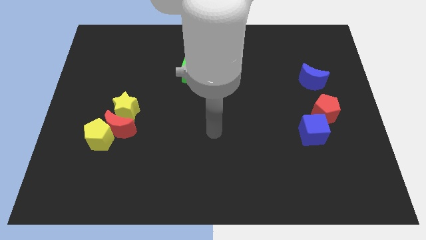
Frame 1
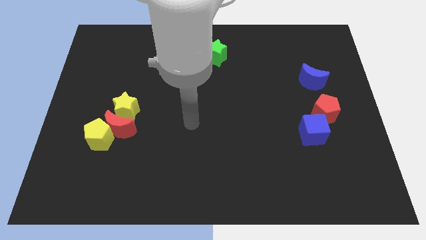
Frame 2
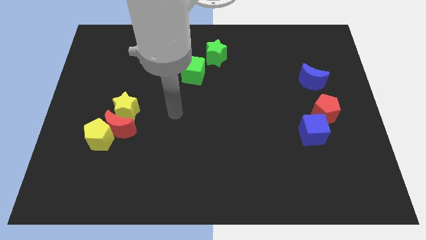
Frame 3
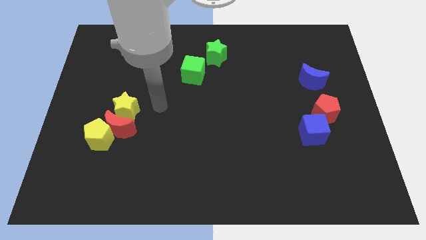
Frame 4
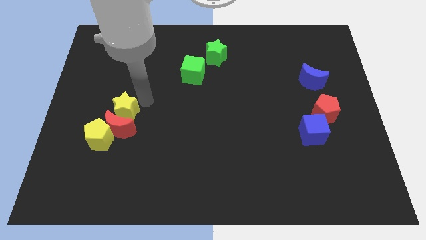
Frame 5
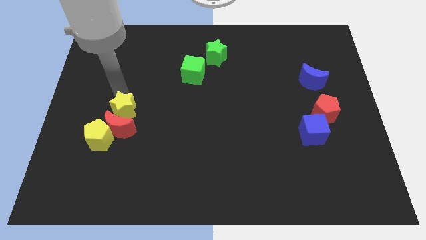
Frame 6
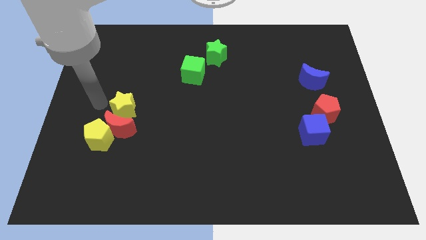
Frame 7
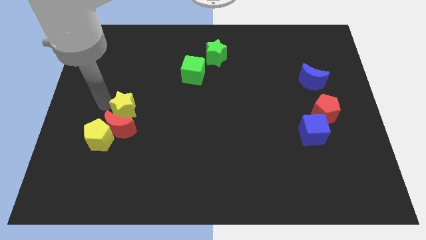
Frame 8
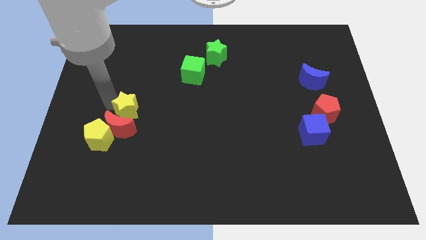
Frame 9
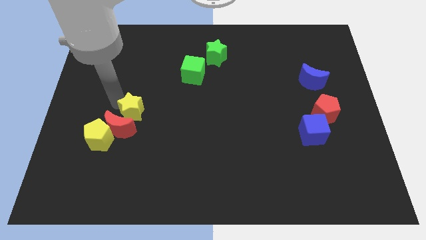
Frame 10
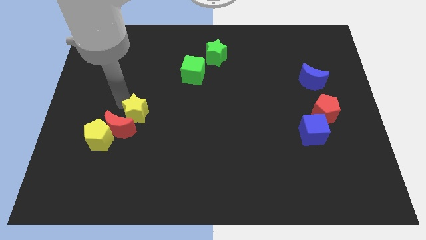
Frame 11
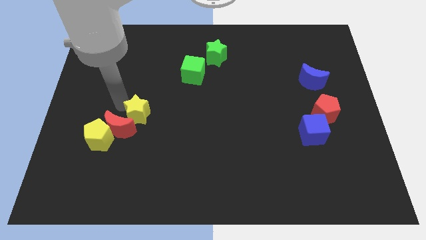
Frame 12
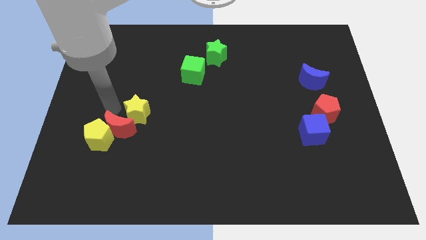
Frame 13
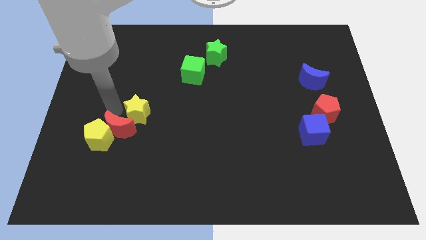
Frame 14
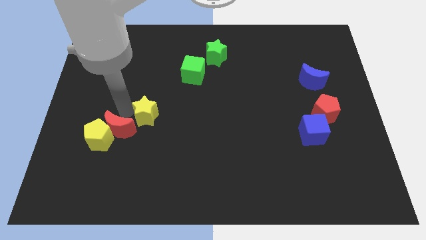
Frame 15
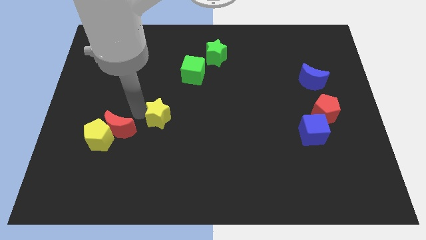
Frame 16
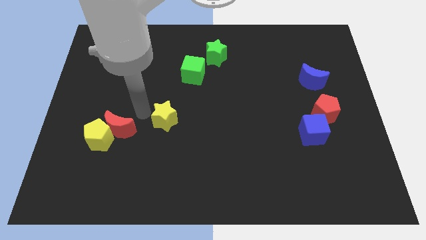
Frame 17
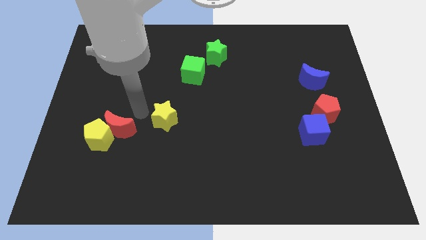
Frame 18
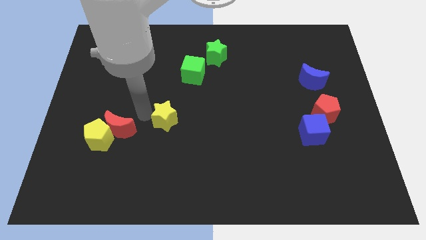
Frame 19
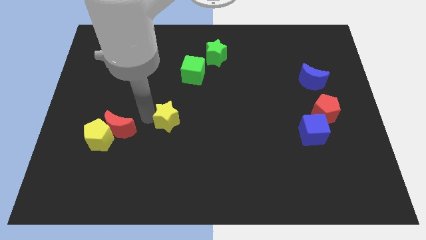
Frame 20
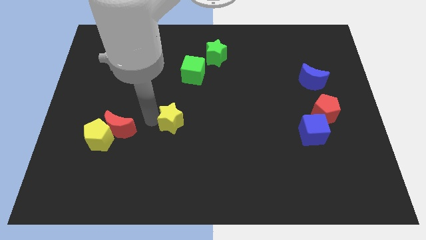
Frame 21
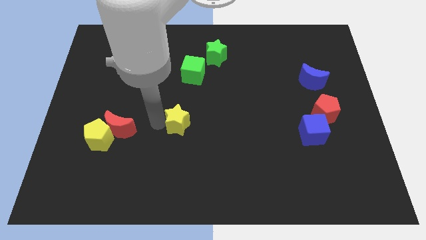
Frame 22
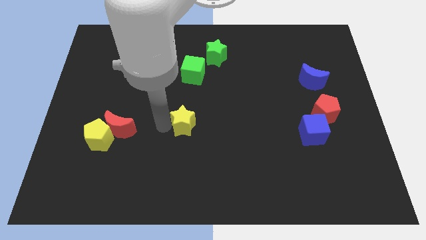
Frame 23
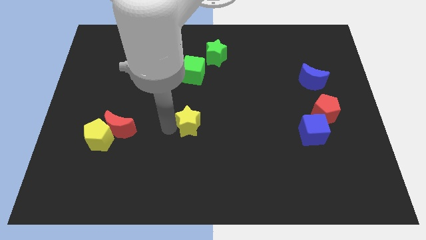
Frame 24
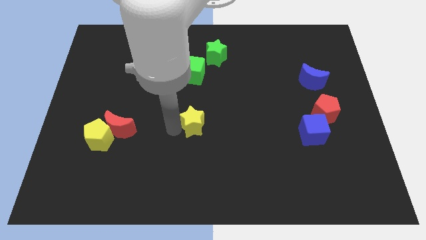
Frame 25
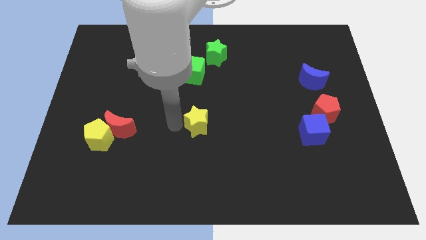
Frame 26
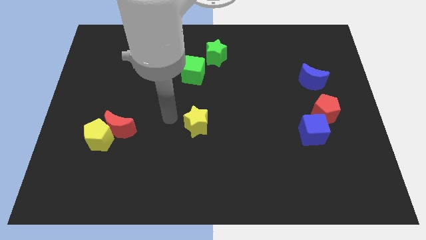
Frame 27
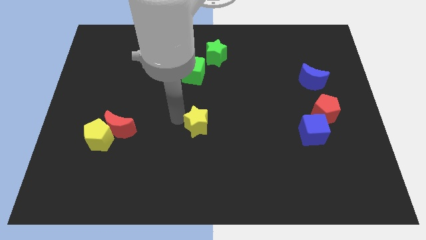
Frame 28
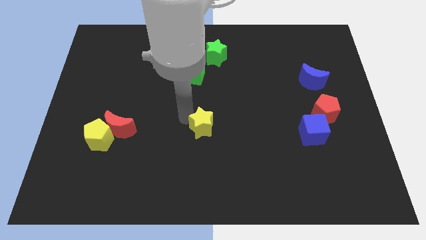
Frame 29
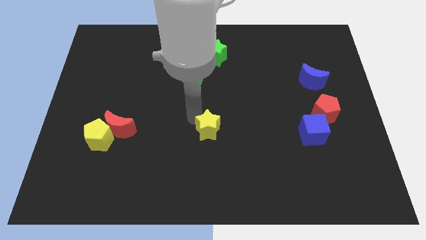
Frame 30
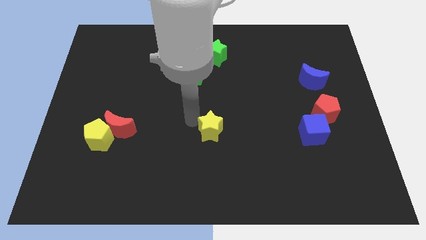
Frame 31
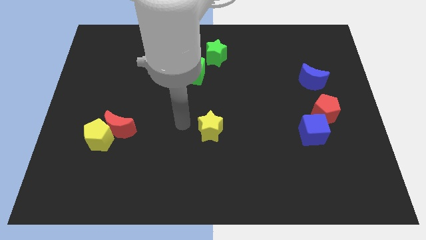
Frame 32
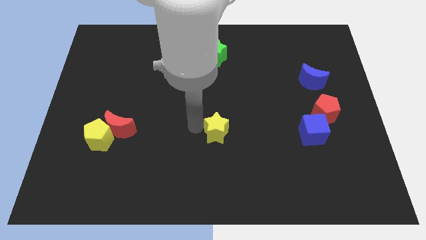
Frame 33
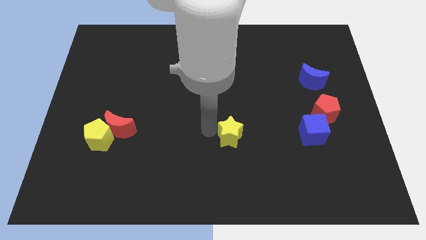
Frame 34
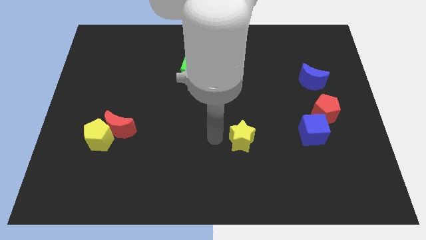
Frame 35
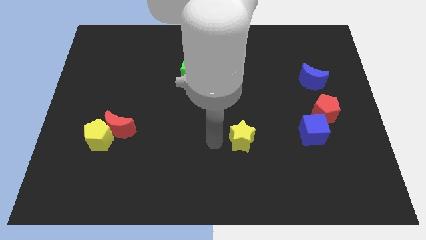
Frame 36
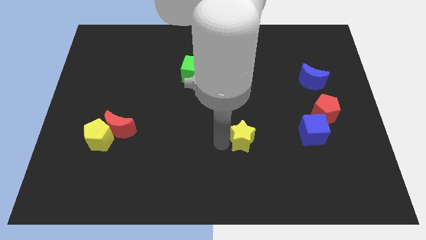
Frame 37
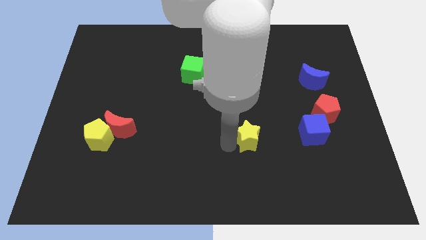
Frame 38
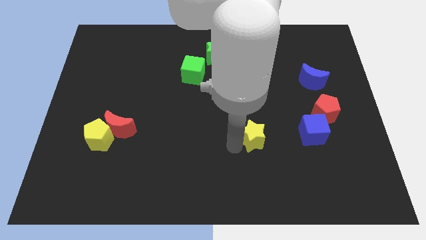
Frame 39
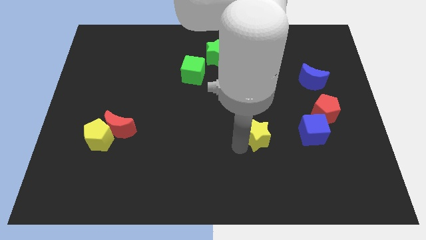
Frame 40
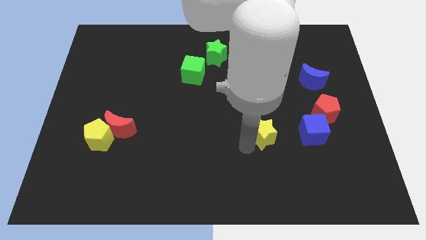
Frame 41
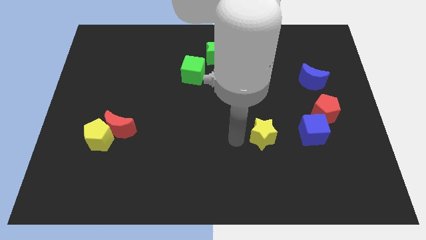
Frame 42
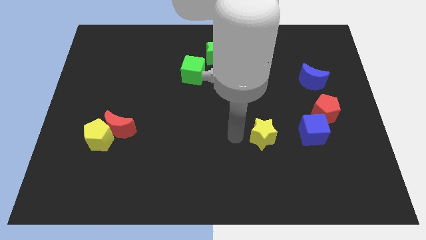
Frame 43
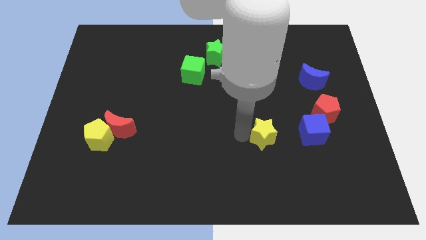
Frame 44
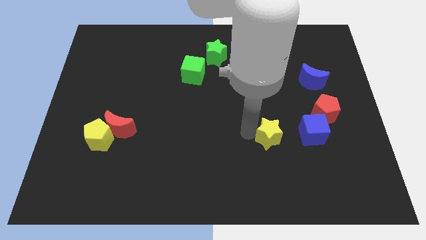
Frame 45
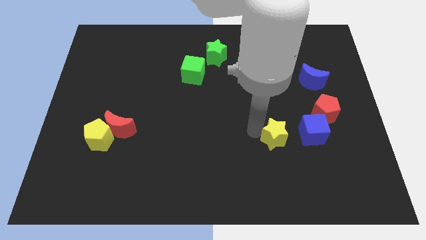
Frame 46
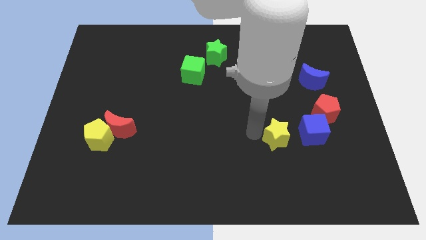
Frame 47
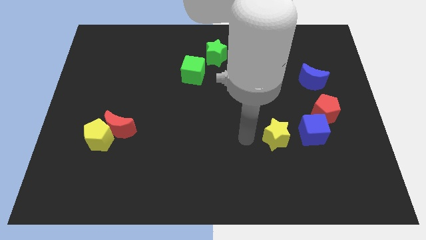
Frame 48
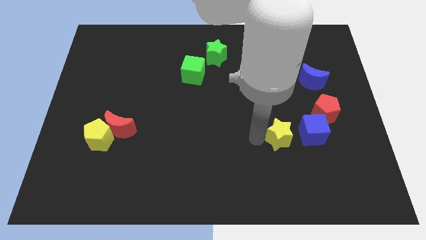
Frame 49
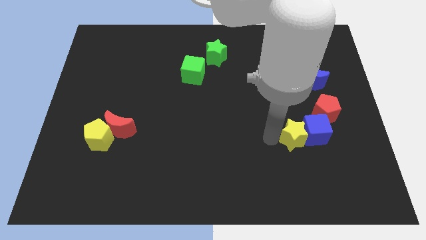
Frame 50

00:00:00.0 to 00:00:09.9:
slide the yellow star next to the blue cube

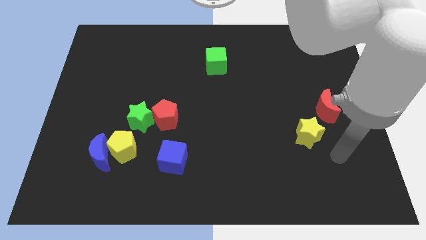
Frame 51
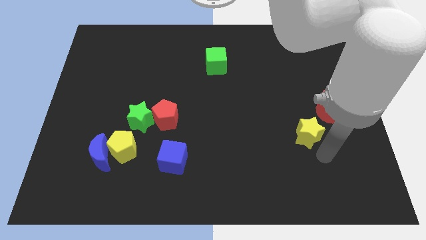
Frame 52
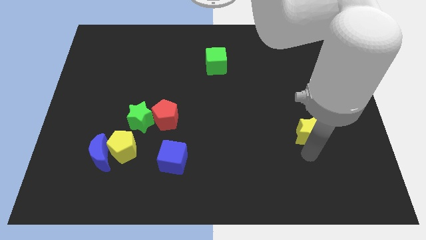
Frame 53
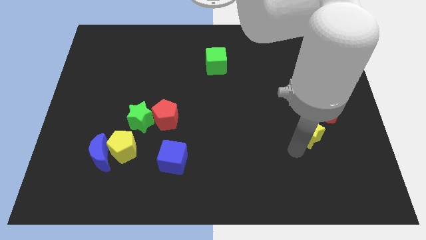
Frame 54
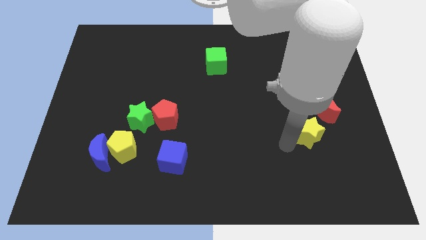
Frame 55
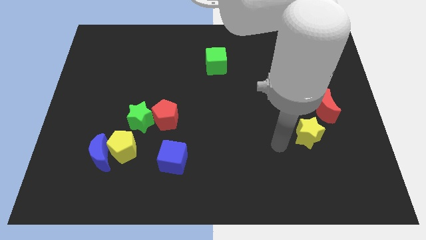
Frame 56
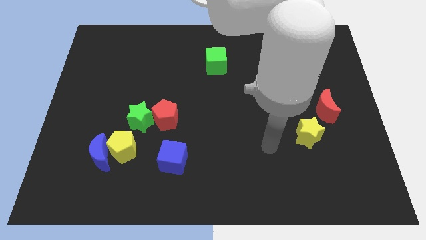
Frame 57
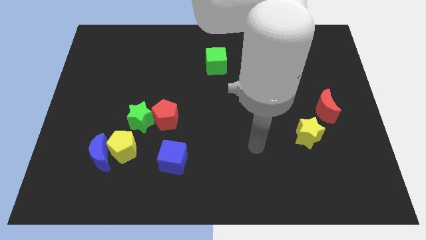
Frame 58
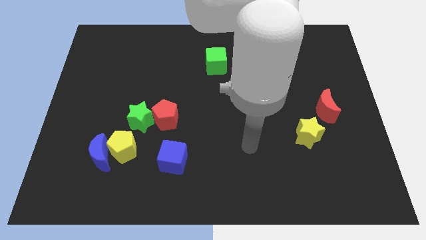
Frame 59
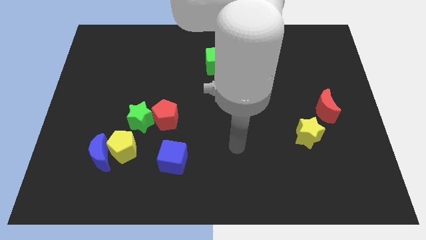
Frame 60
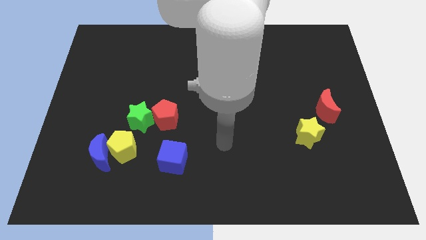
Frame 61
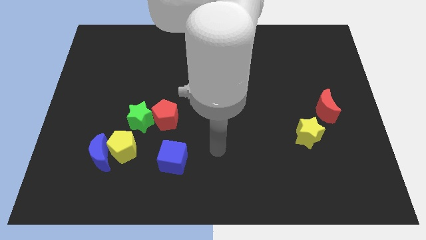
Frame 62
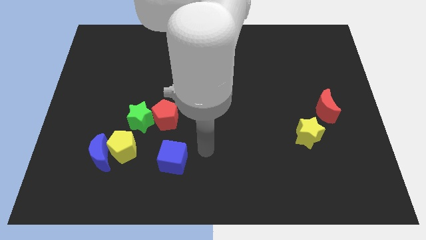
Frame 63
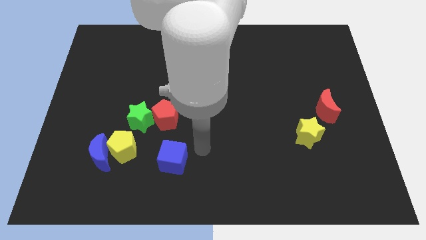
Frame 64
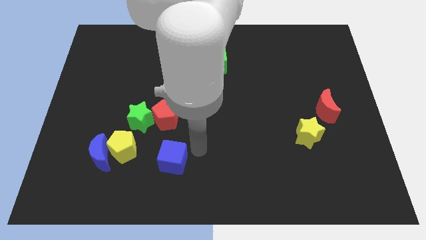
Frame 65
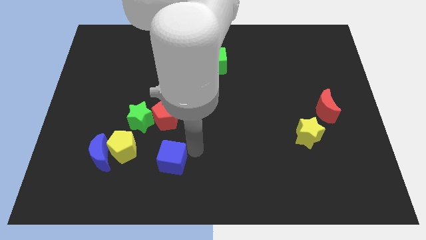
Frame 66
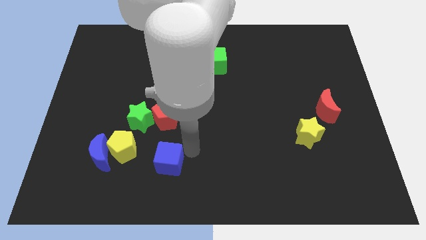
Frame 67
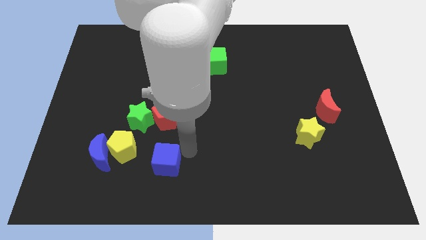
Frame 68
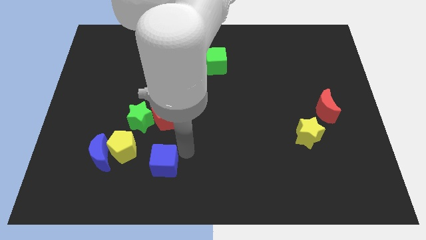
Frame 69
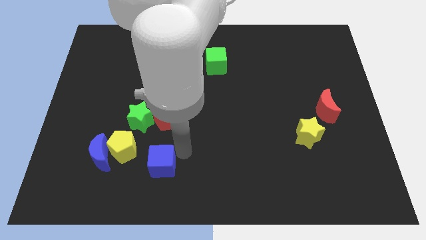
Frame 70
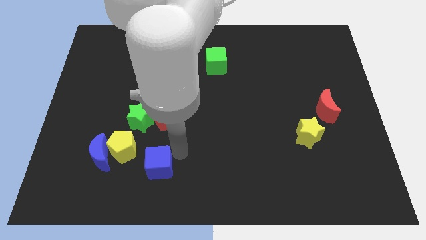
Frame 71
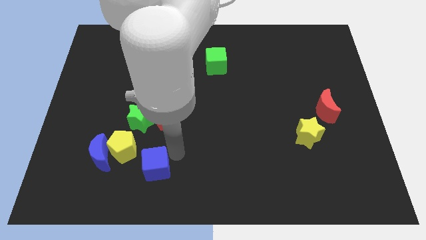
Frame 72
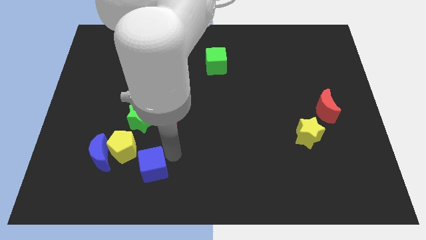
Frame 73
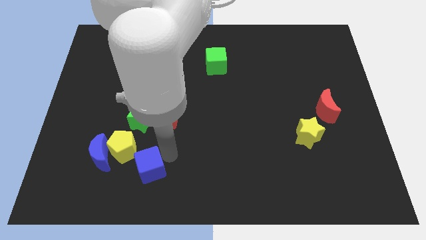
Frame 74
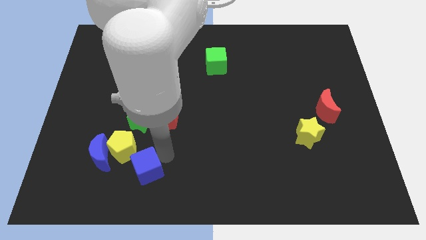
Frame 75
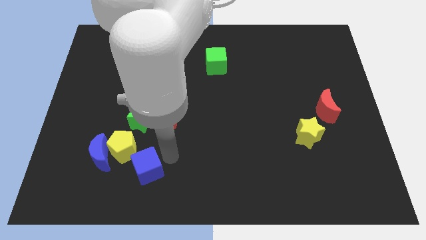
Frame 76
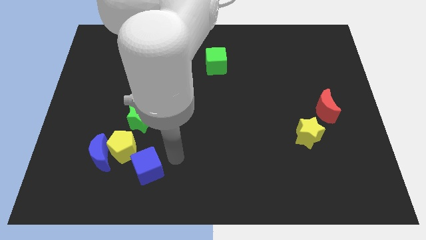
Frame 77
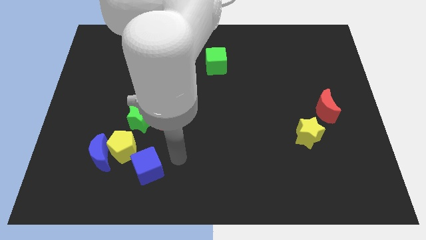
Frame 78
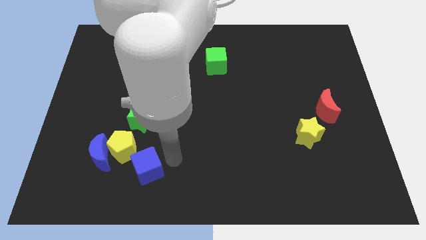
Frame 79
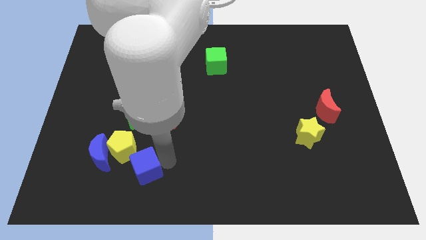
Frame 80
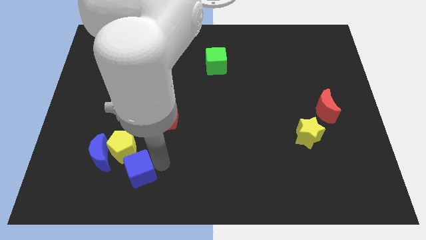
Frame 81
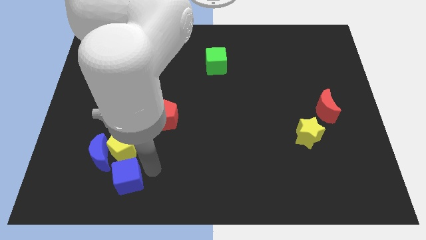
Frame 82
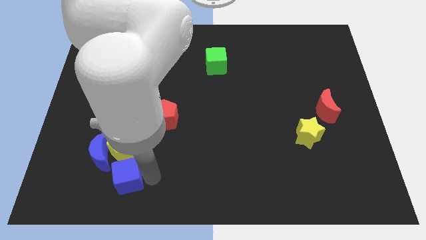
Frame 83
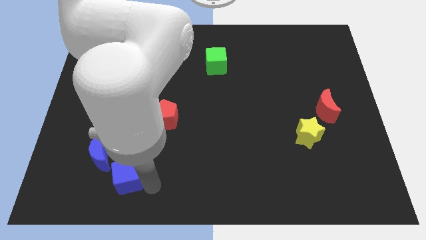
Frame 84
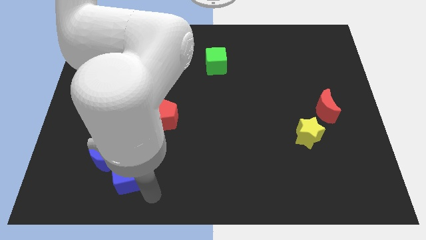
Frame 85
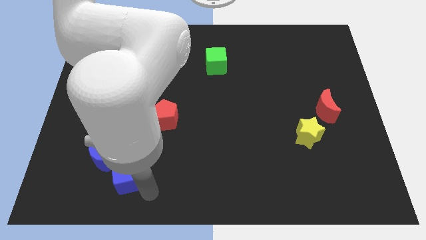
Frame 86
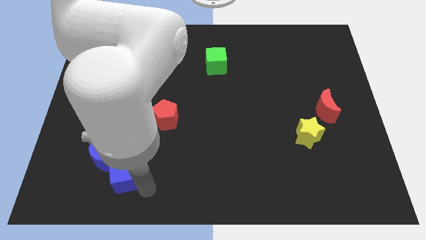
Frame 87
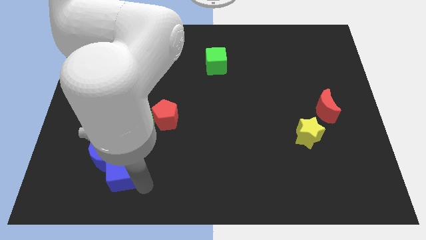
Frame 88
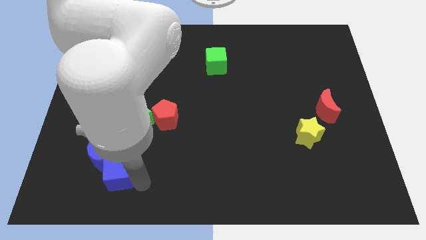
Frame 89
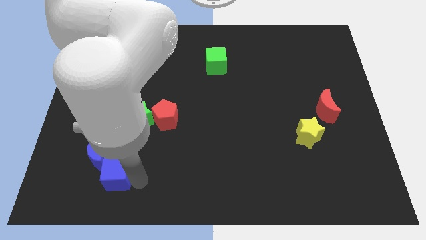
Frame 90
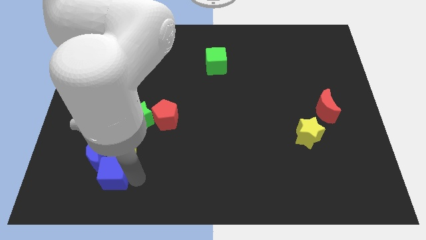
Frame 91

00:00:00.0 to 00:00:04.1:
put the blue cube towards the blue moon
